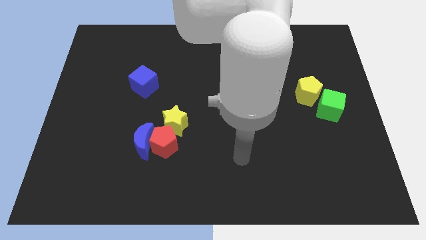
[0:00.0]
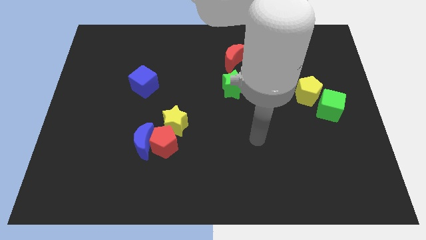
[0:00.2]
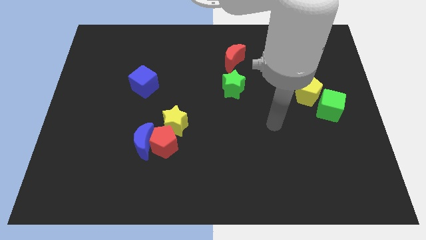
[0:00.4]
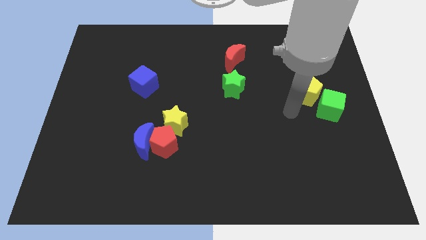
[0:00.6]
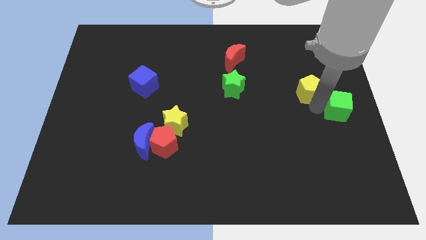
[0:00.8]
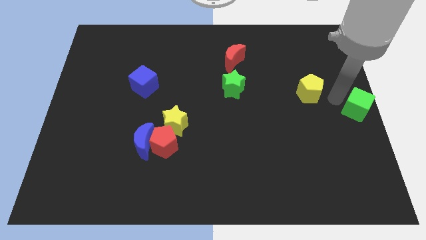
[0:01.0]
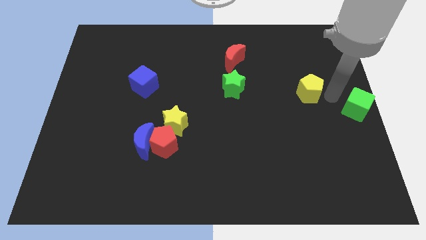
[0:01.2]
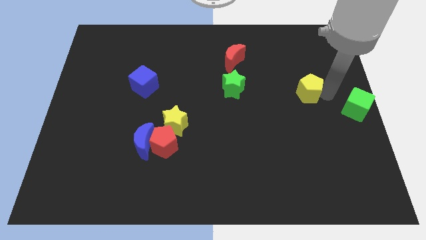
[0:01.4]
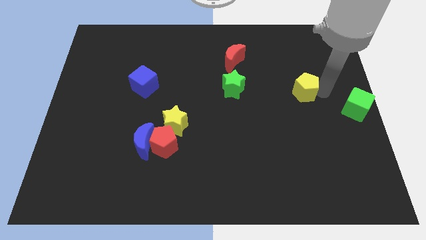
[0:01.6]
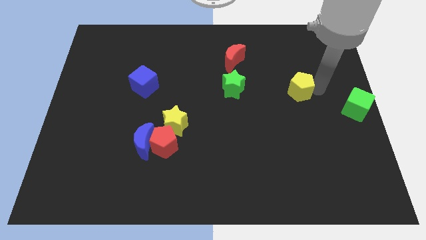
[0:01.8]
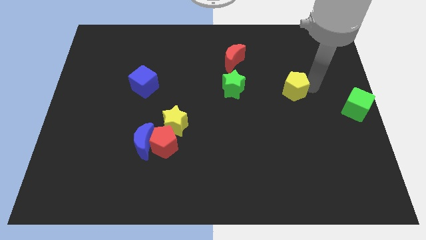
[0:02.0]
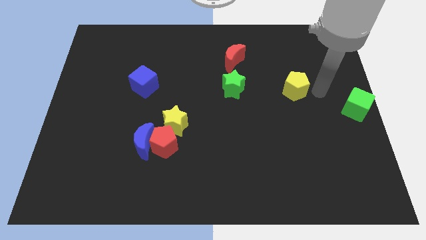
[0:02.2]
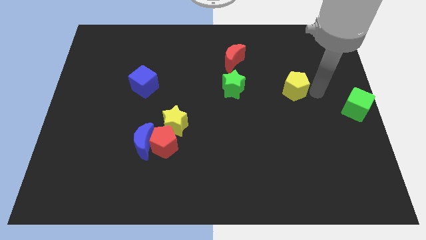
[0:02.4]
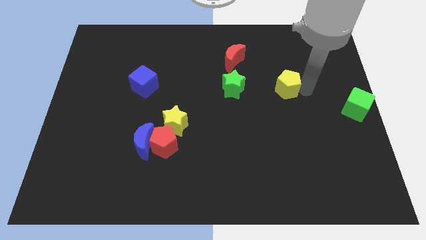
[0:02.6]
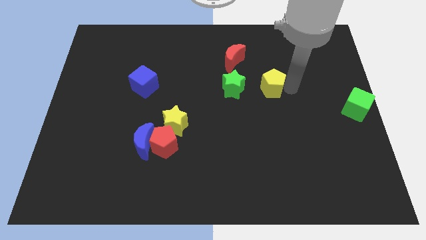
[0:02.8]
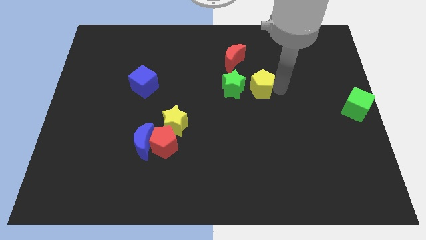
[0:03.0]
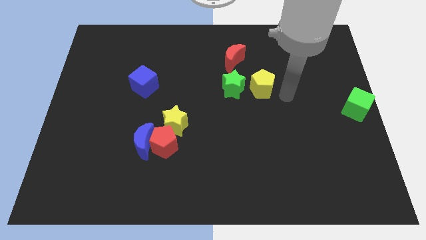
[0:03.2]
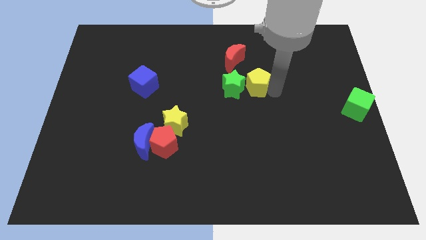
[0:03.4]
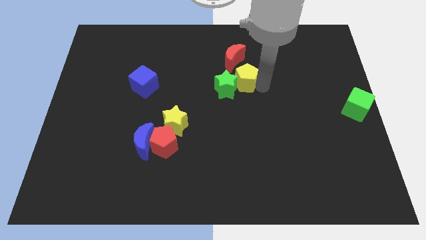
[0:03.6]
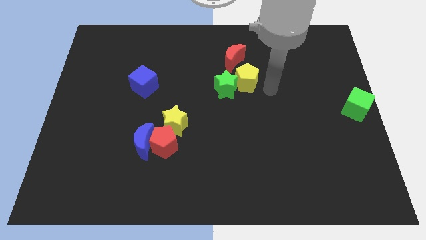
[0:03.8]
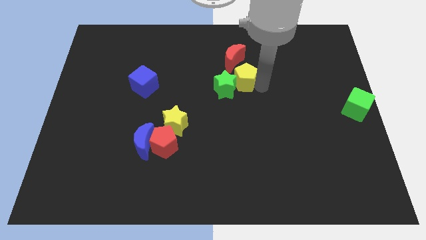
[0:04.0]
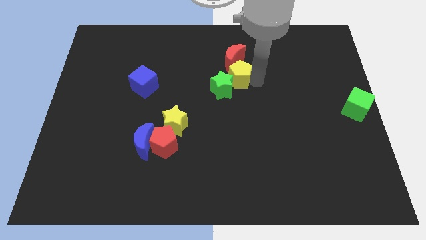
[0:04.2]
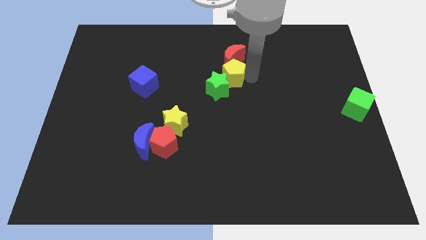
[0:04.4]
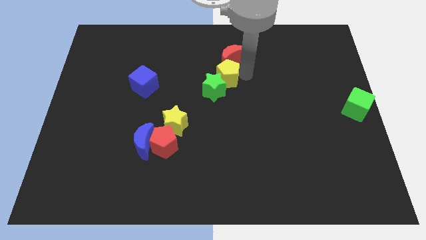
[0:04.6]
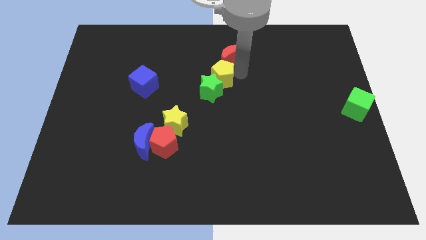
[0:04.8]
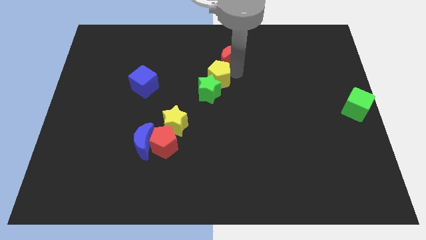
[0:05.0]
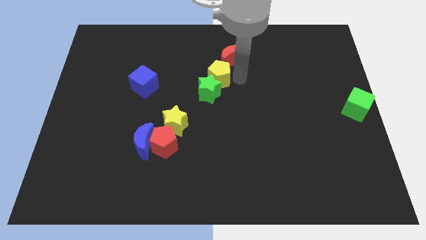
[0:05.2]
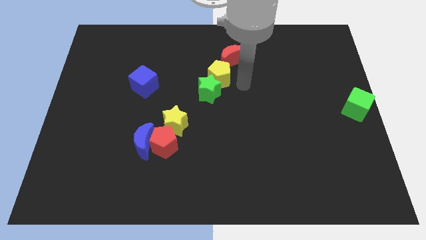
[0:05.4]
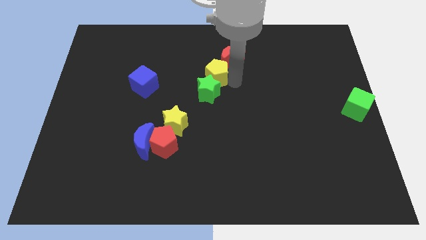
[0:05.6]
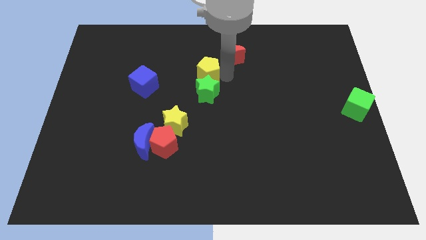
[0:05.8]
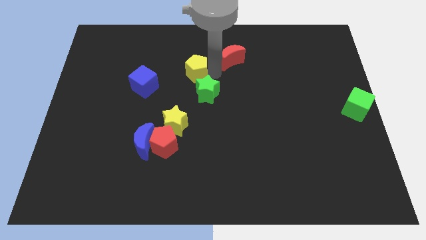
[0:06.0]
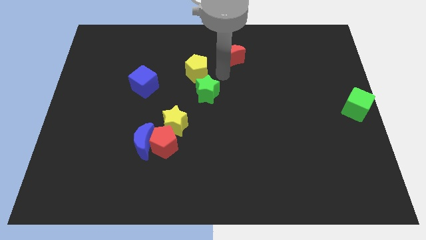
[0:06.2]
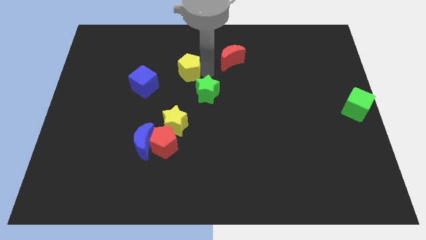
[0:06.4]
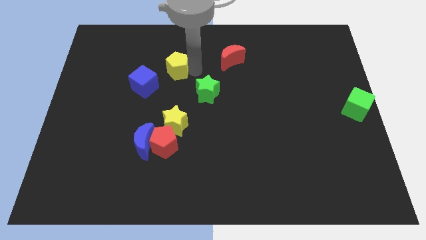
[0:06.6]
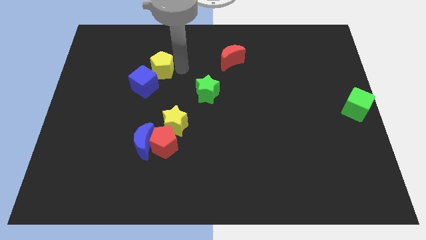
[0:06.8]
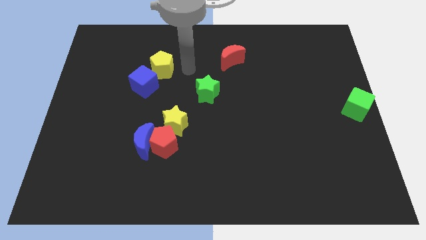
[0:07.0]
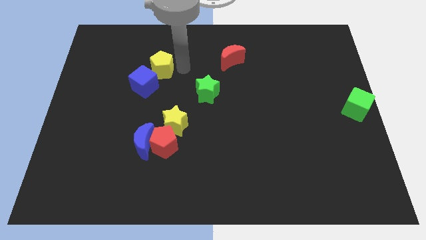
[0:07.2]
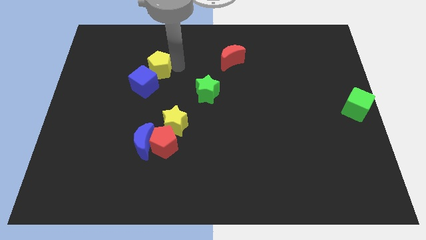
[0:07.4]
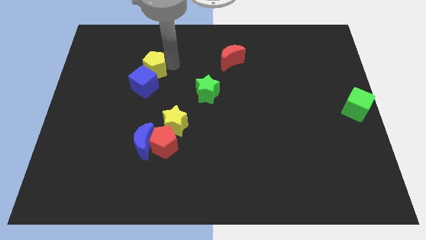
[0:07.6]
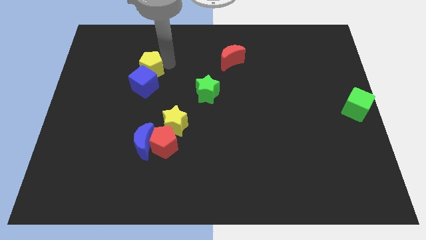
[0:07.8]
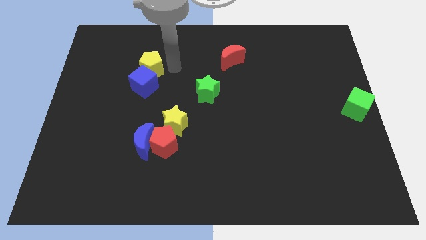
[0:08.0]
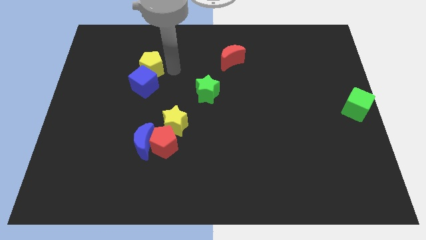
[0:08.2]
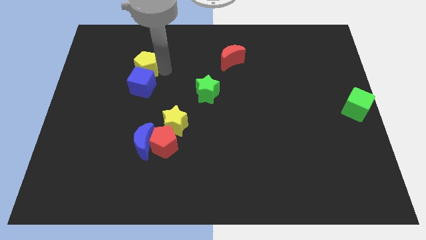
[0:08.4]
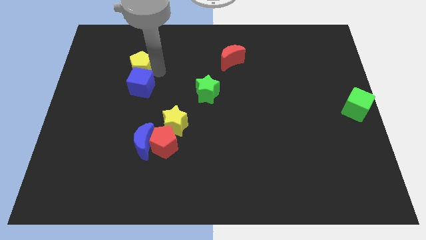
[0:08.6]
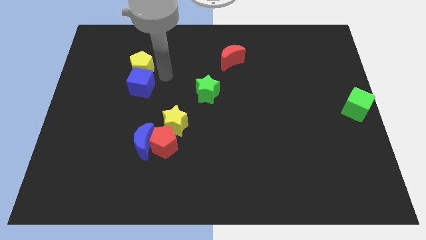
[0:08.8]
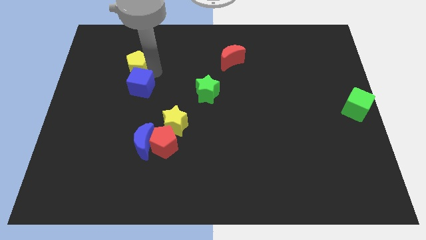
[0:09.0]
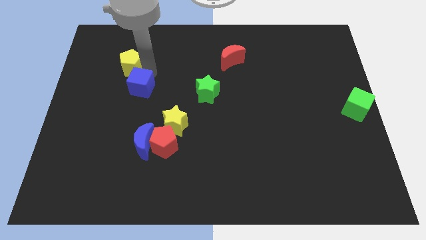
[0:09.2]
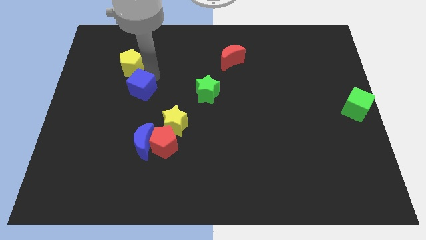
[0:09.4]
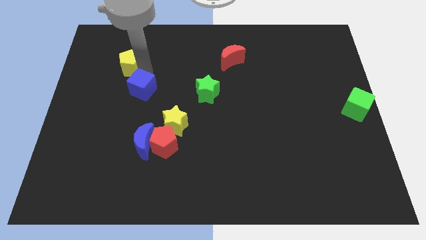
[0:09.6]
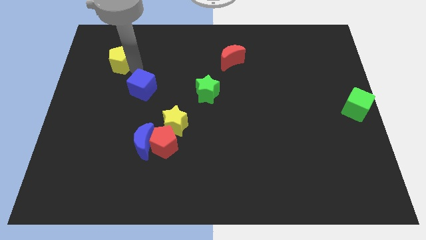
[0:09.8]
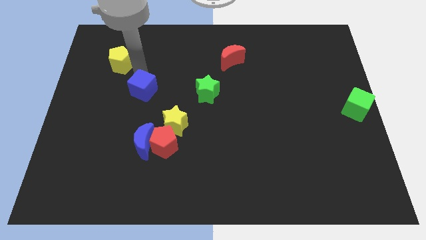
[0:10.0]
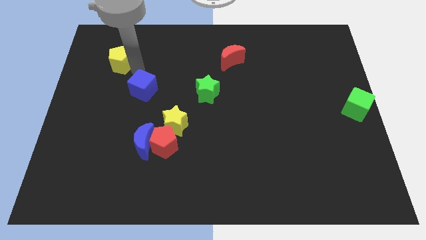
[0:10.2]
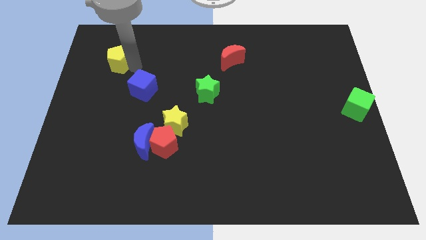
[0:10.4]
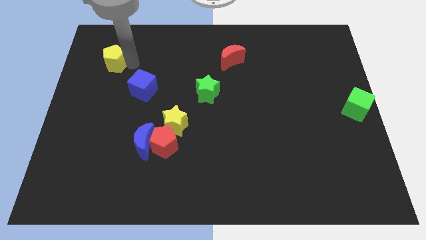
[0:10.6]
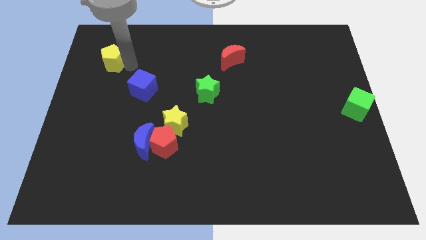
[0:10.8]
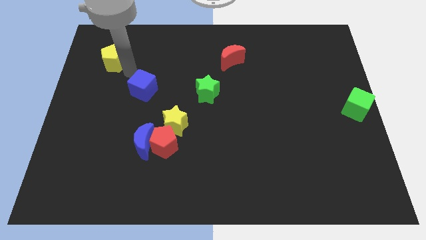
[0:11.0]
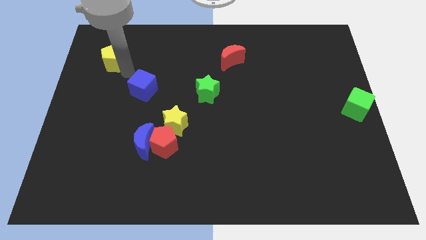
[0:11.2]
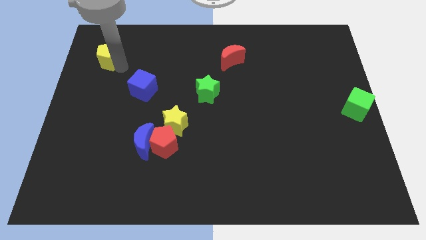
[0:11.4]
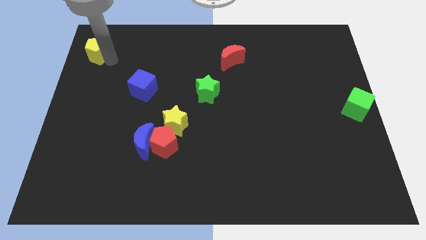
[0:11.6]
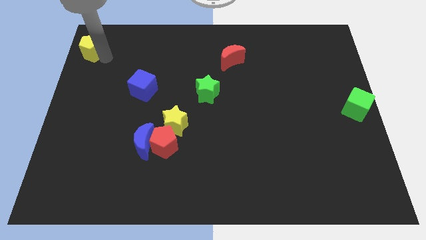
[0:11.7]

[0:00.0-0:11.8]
move the yellow pentagon to the top left

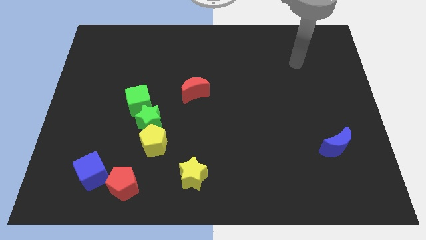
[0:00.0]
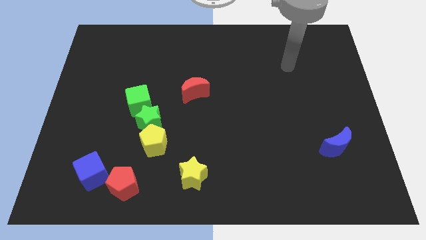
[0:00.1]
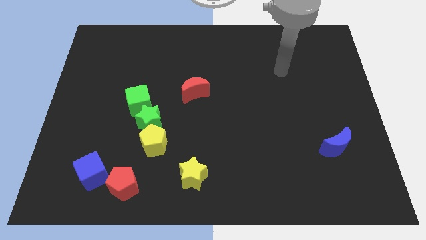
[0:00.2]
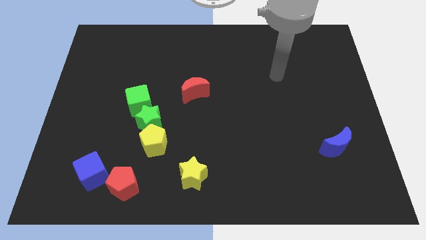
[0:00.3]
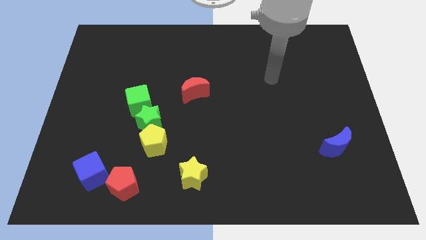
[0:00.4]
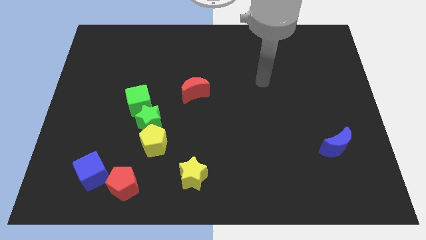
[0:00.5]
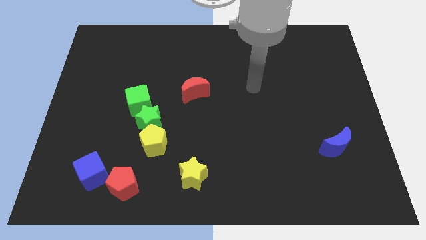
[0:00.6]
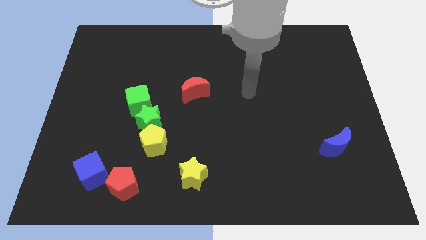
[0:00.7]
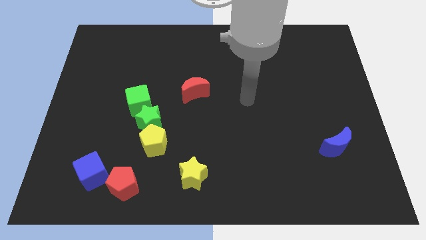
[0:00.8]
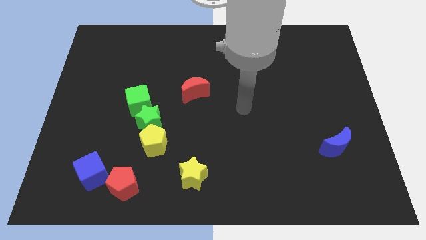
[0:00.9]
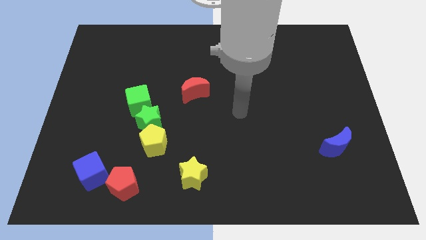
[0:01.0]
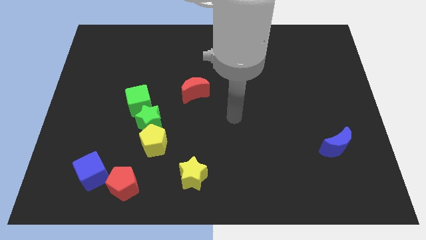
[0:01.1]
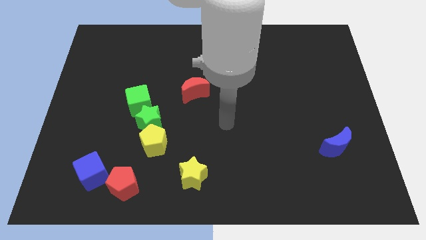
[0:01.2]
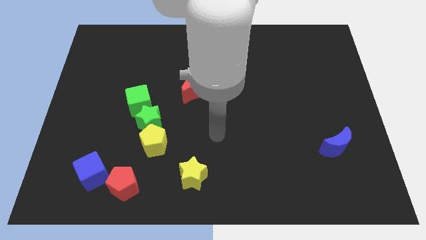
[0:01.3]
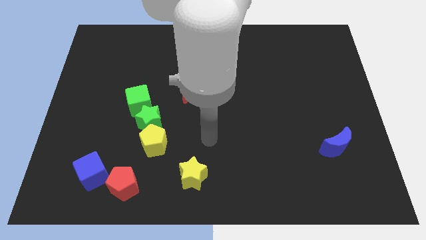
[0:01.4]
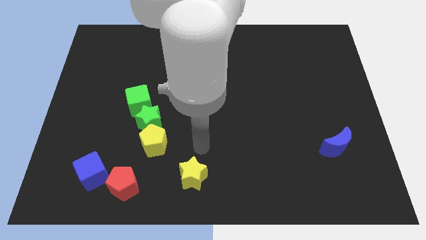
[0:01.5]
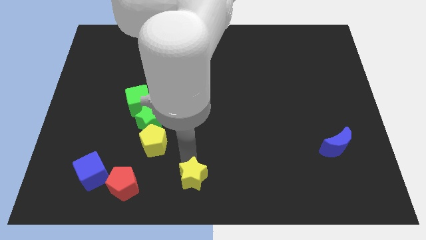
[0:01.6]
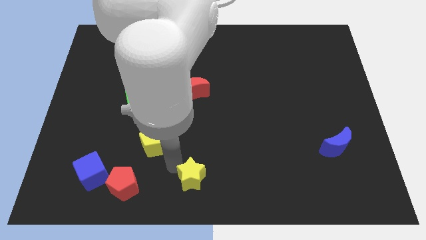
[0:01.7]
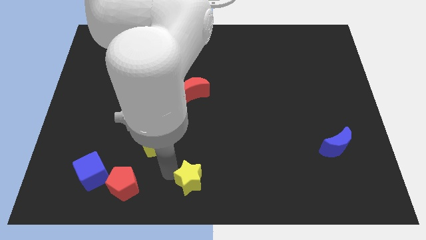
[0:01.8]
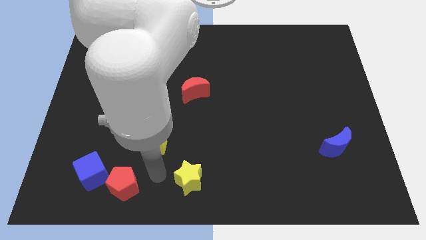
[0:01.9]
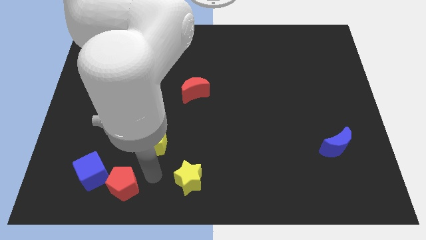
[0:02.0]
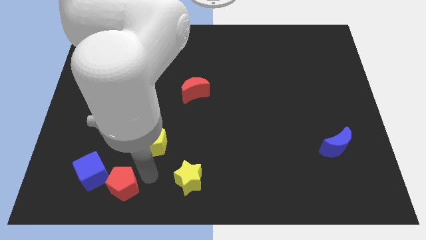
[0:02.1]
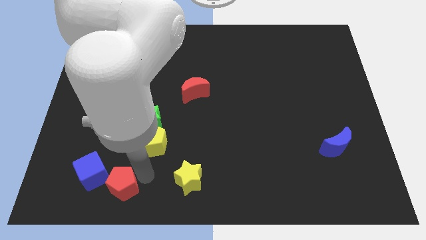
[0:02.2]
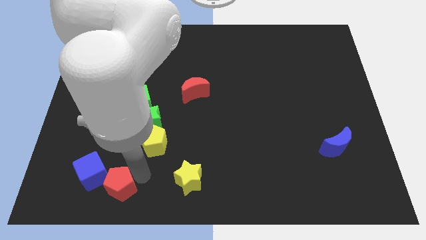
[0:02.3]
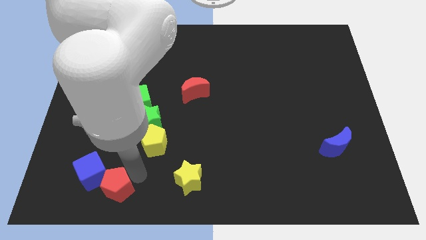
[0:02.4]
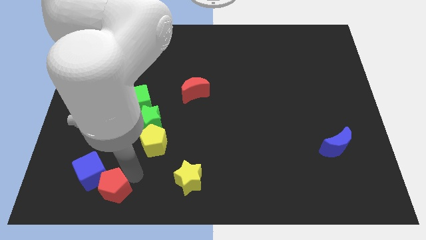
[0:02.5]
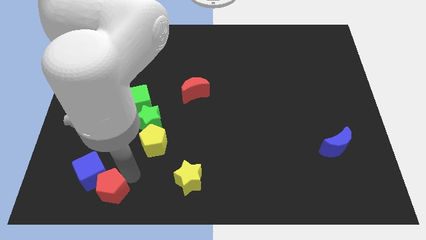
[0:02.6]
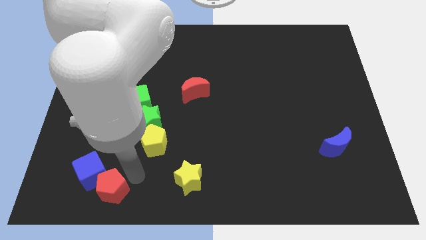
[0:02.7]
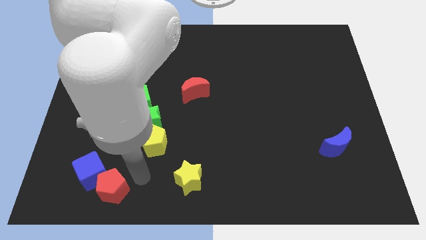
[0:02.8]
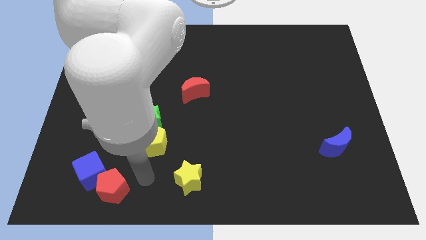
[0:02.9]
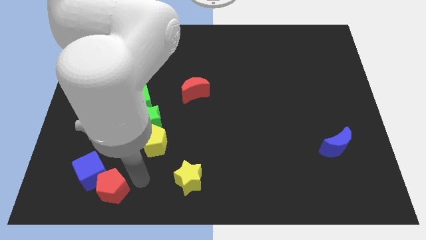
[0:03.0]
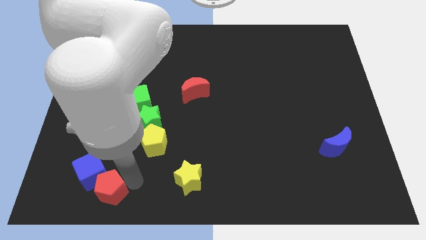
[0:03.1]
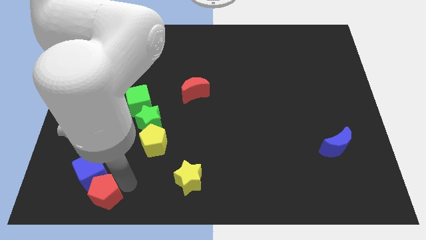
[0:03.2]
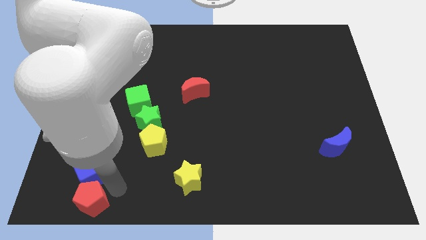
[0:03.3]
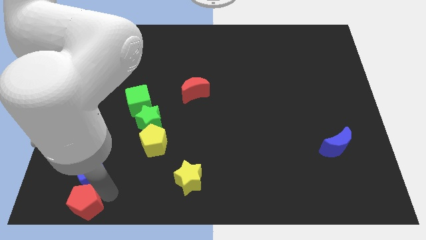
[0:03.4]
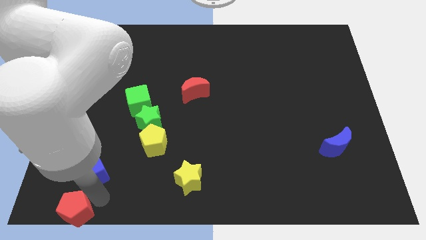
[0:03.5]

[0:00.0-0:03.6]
put the red pentagon to the bottom left
